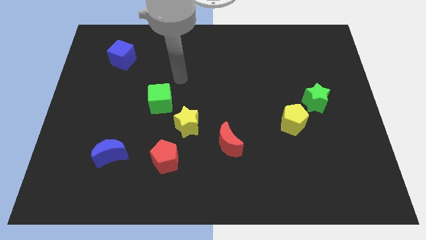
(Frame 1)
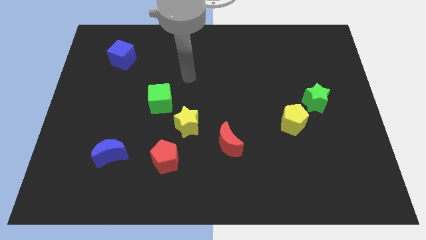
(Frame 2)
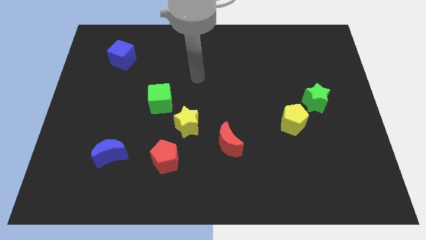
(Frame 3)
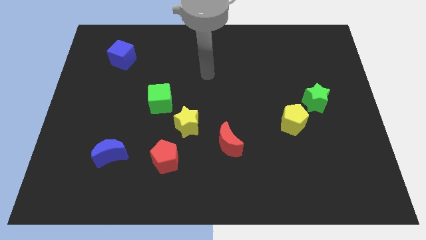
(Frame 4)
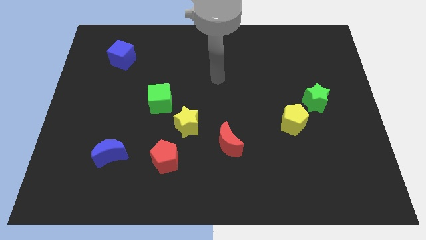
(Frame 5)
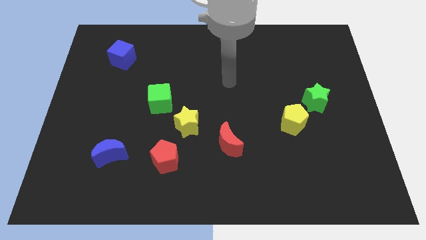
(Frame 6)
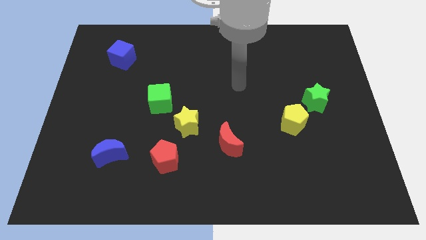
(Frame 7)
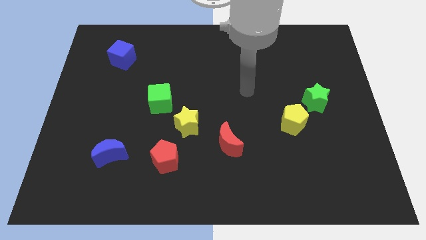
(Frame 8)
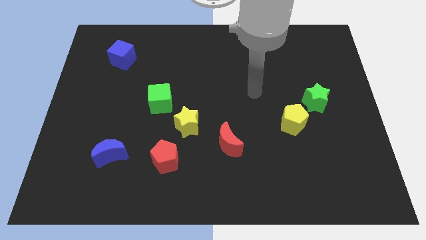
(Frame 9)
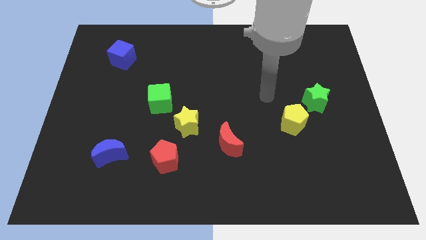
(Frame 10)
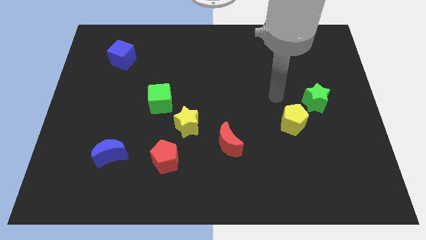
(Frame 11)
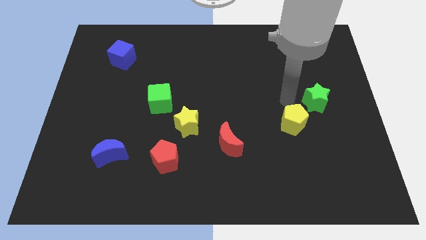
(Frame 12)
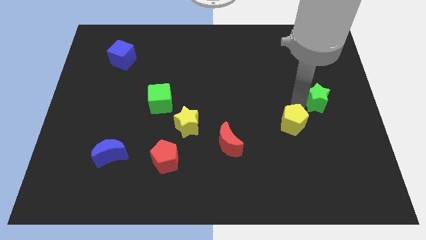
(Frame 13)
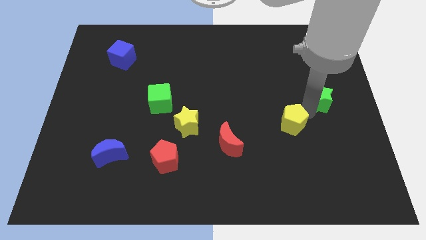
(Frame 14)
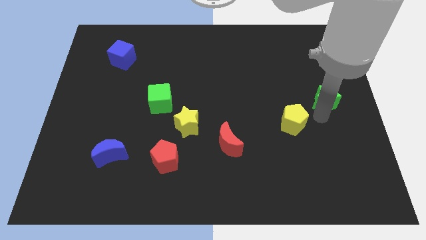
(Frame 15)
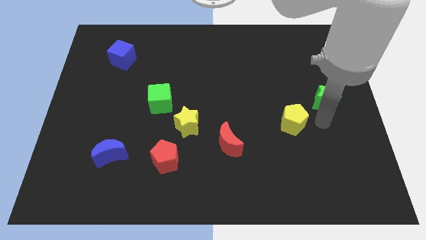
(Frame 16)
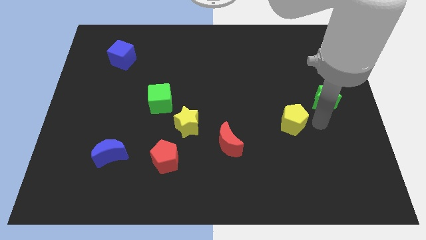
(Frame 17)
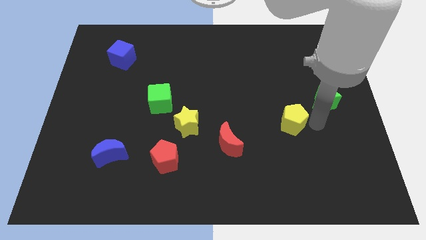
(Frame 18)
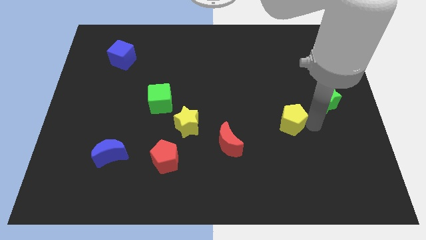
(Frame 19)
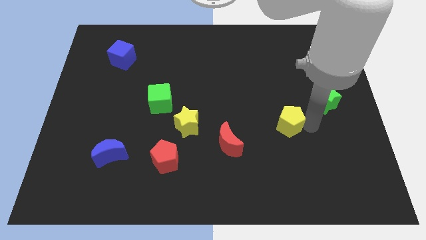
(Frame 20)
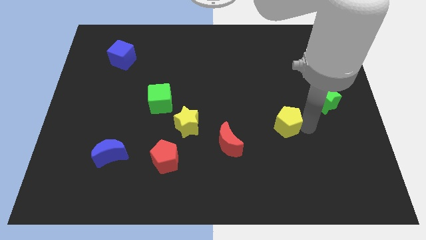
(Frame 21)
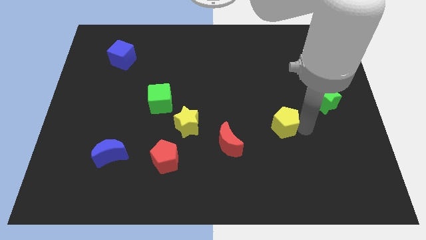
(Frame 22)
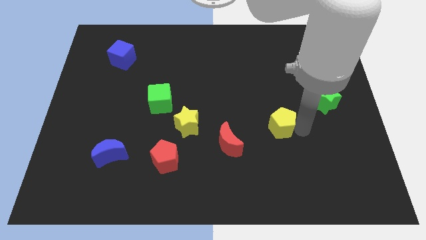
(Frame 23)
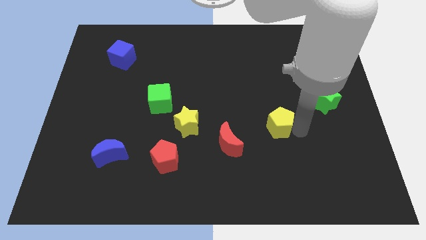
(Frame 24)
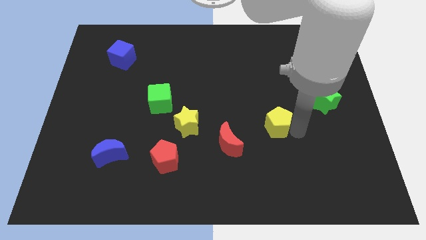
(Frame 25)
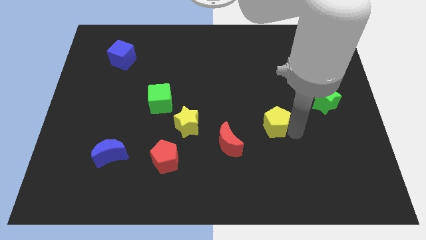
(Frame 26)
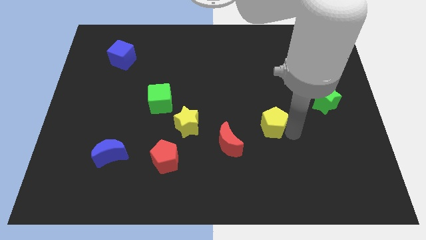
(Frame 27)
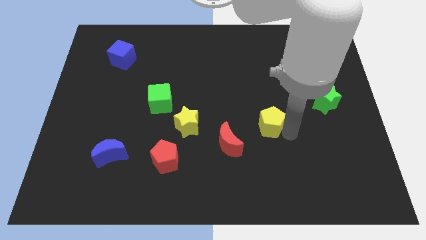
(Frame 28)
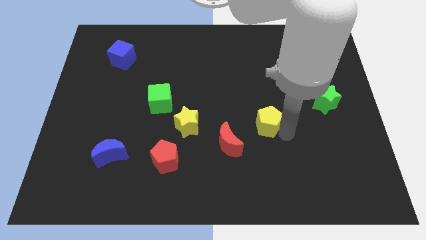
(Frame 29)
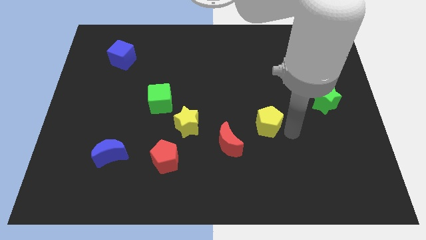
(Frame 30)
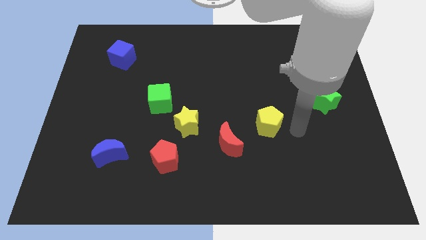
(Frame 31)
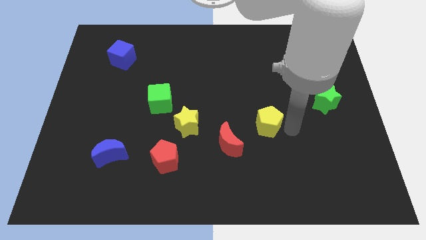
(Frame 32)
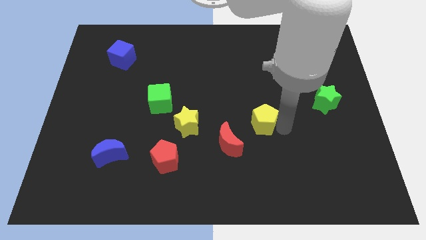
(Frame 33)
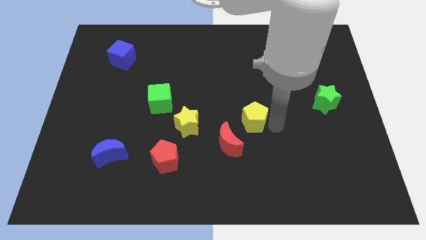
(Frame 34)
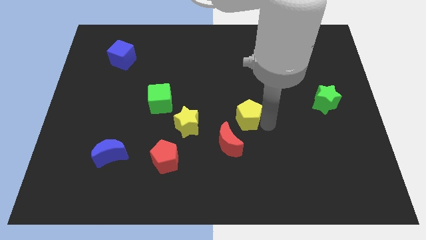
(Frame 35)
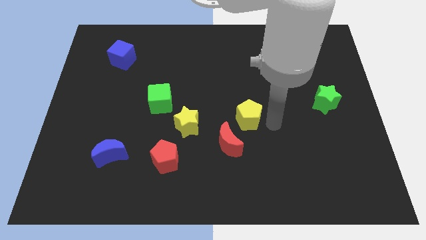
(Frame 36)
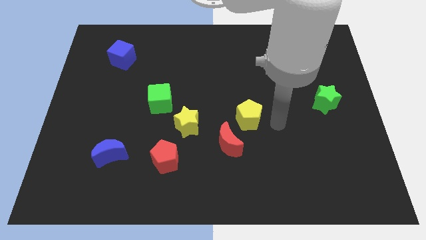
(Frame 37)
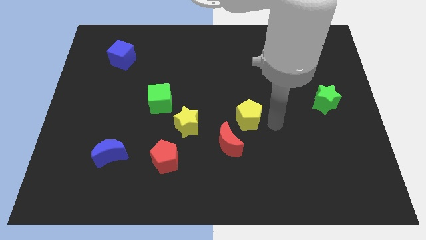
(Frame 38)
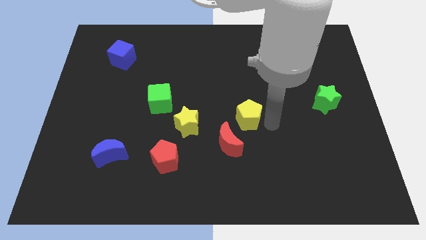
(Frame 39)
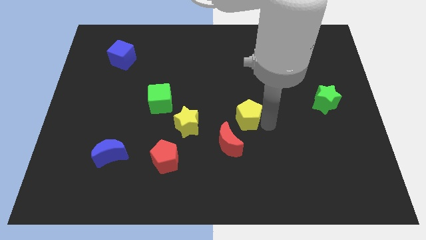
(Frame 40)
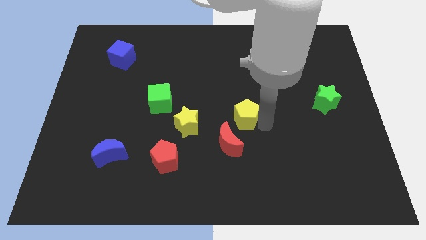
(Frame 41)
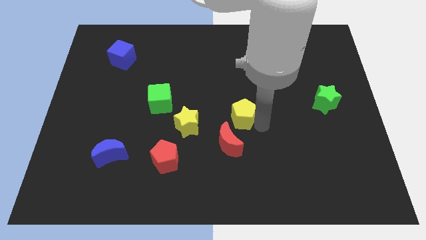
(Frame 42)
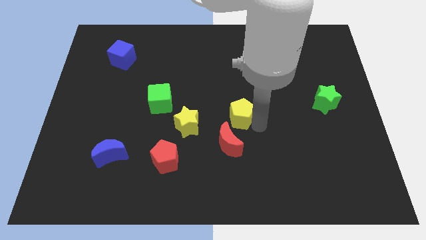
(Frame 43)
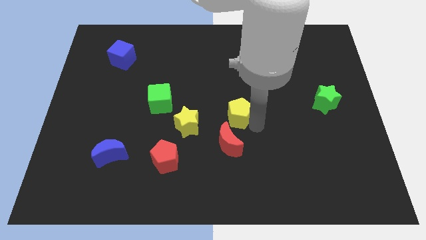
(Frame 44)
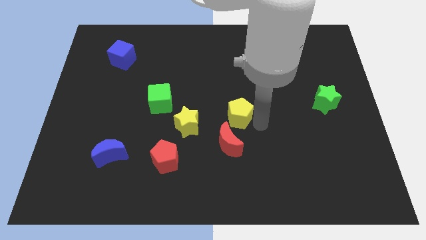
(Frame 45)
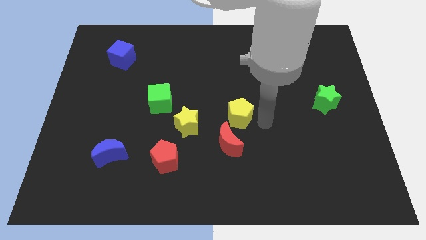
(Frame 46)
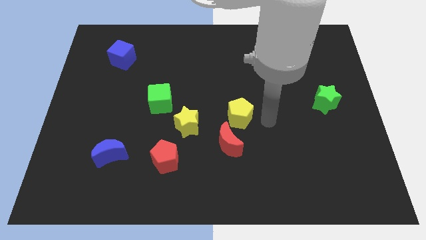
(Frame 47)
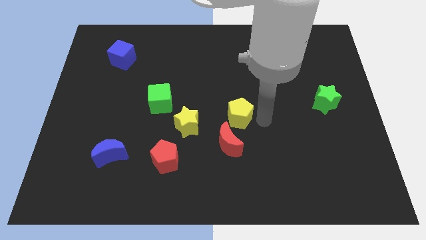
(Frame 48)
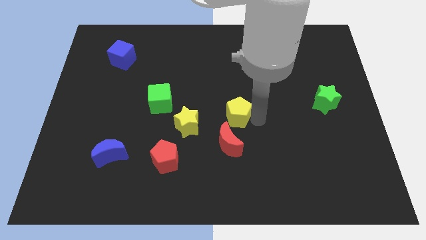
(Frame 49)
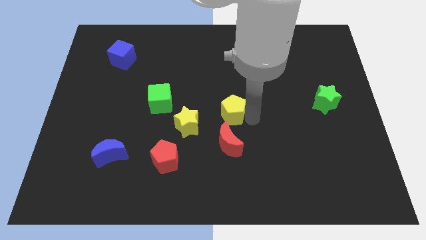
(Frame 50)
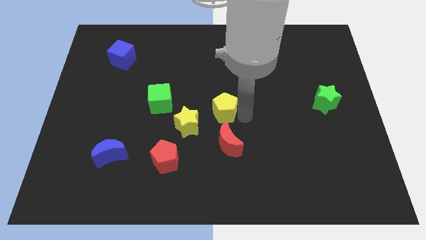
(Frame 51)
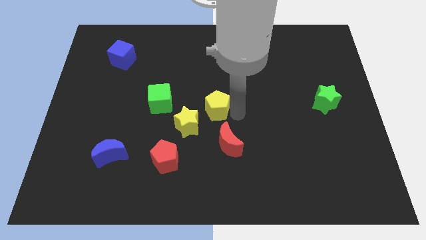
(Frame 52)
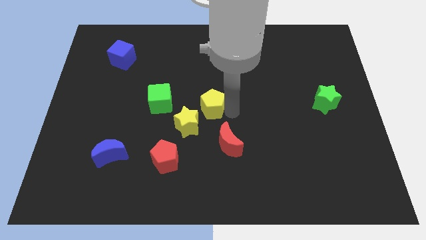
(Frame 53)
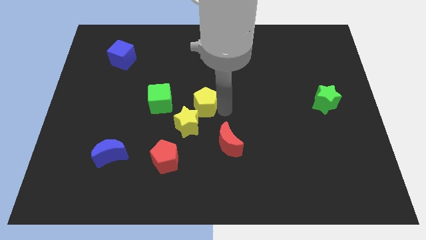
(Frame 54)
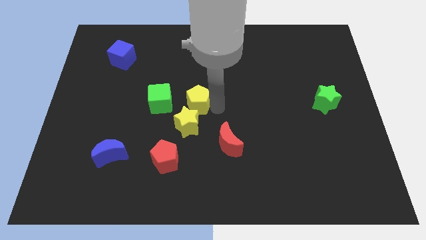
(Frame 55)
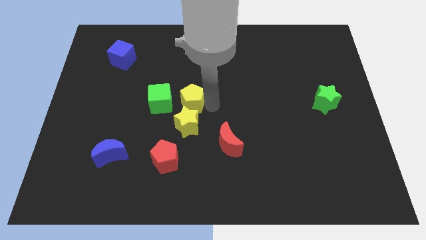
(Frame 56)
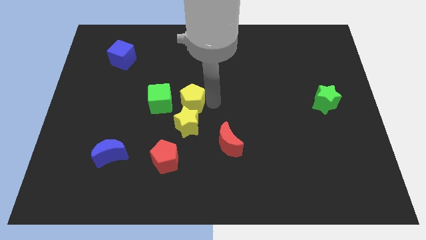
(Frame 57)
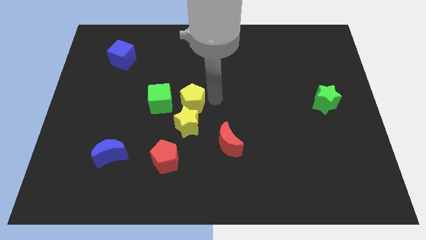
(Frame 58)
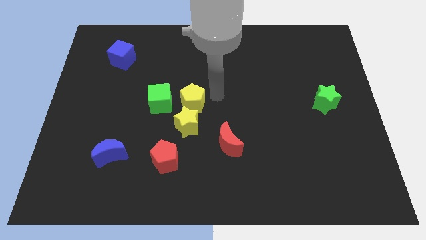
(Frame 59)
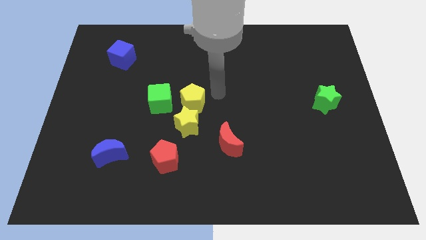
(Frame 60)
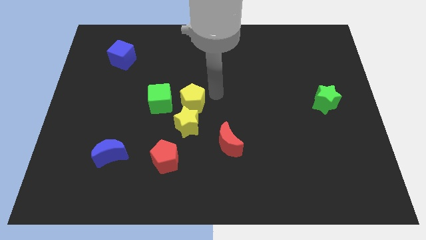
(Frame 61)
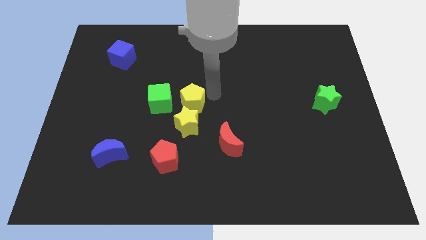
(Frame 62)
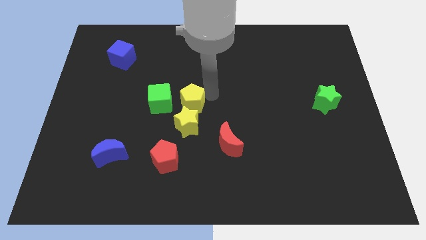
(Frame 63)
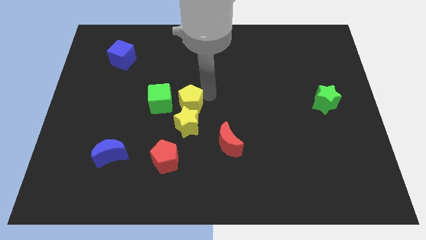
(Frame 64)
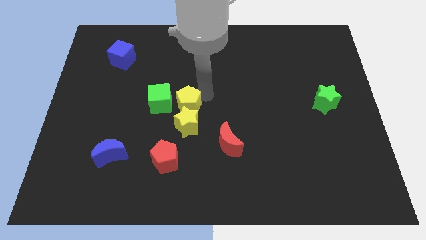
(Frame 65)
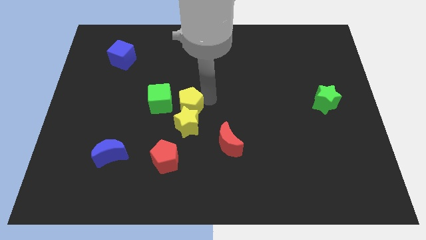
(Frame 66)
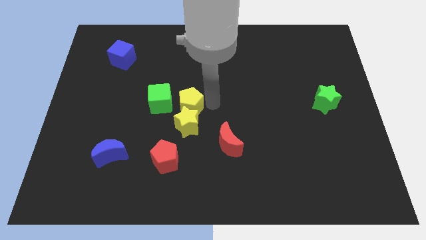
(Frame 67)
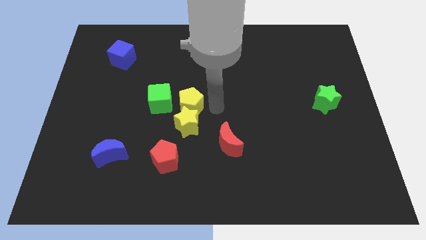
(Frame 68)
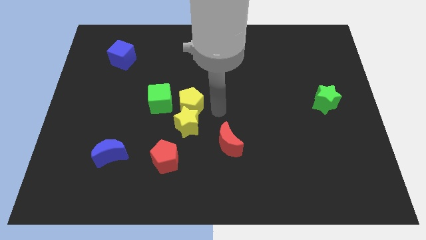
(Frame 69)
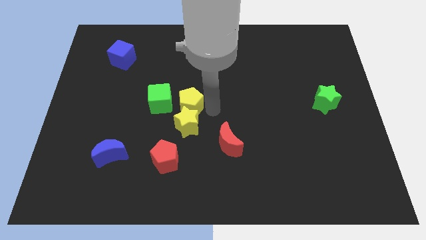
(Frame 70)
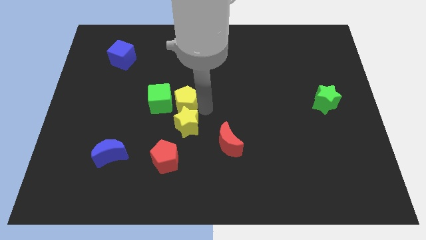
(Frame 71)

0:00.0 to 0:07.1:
slide the yellow pentagon close to the green cube

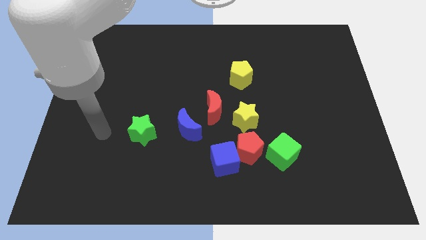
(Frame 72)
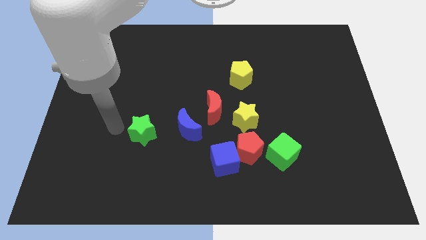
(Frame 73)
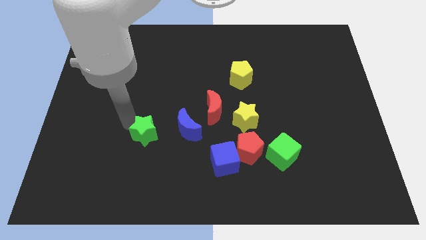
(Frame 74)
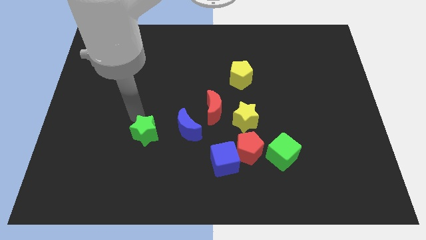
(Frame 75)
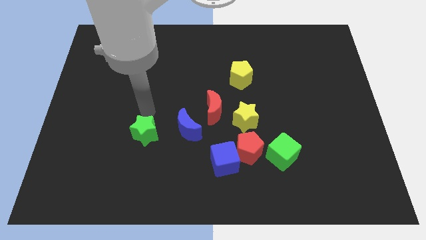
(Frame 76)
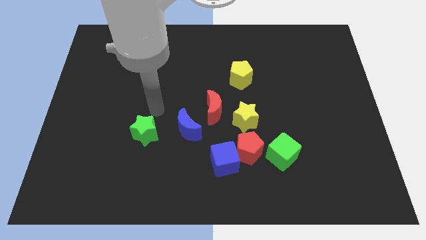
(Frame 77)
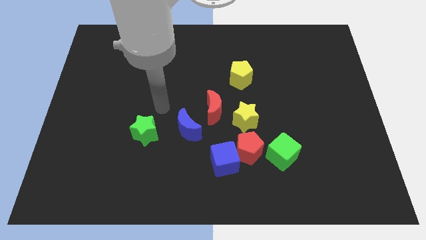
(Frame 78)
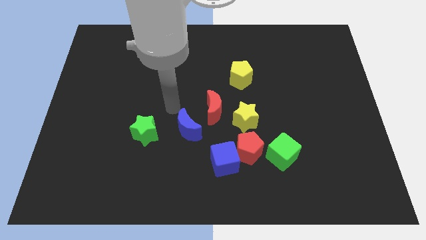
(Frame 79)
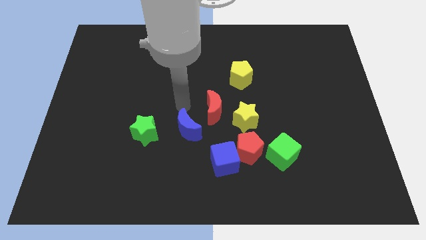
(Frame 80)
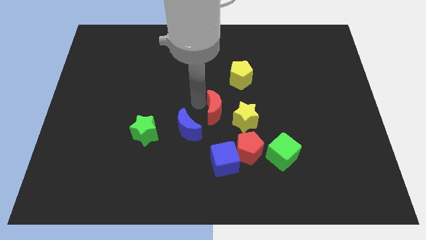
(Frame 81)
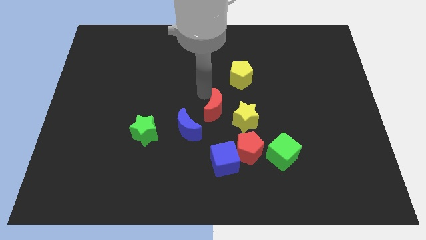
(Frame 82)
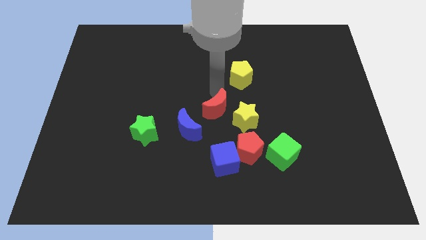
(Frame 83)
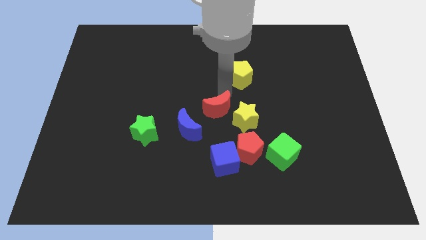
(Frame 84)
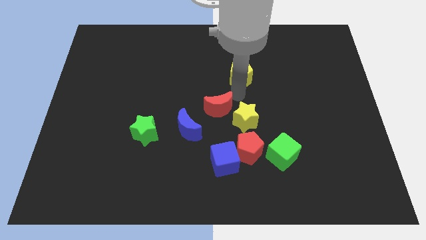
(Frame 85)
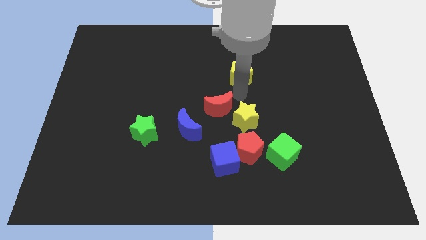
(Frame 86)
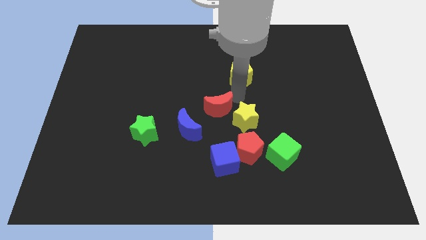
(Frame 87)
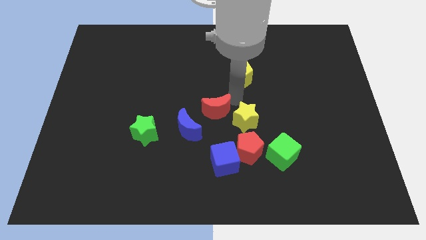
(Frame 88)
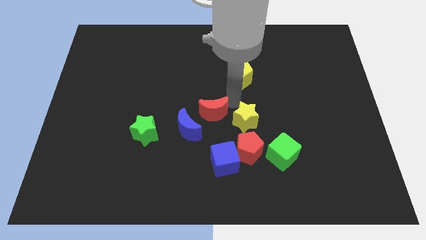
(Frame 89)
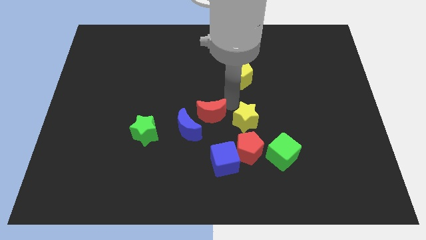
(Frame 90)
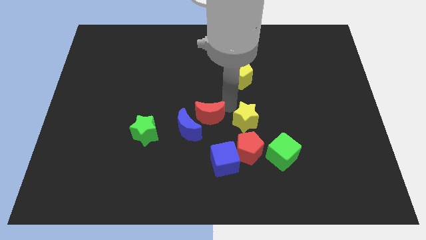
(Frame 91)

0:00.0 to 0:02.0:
put the red moon towards the blue moon
